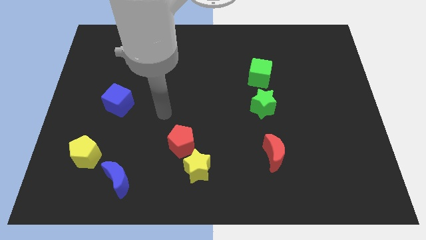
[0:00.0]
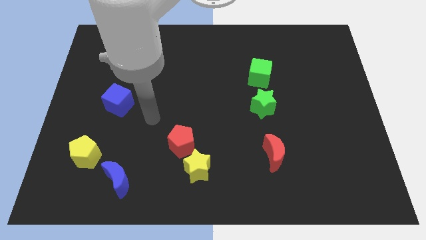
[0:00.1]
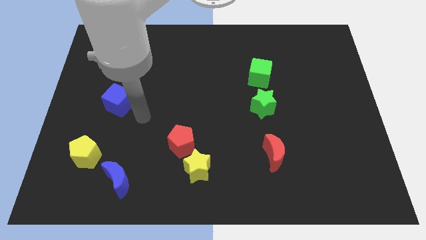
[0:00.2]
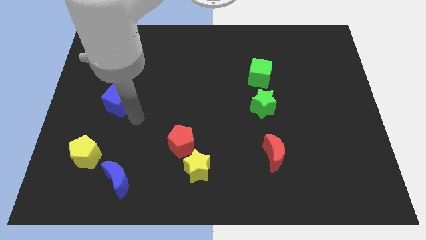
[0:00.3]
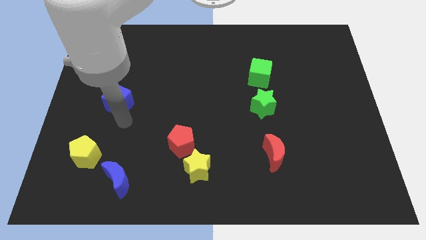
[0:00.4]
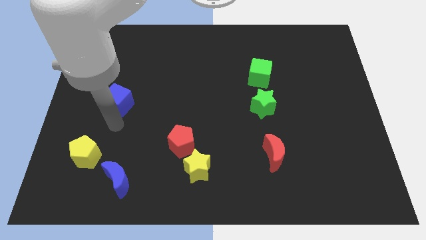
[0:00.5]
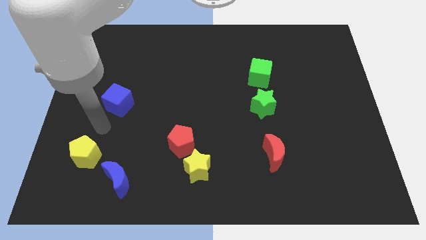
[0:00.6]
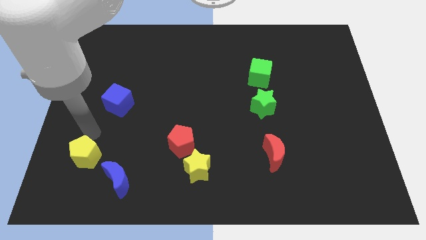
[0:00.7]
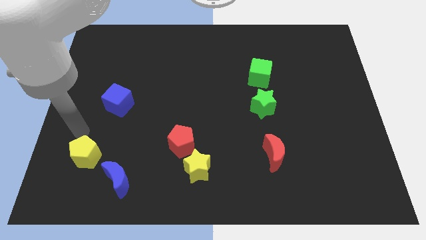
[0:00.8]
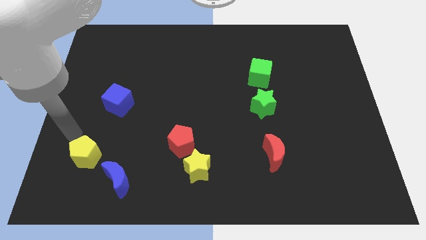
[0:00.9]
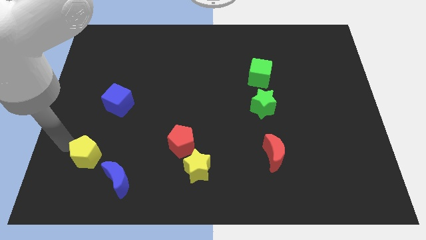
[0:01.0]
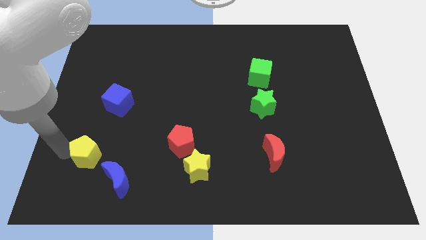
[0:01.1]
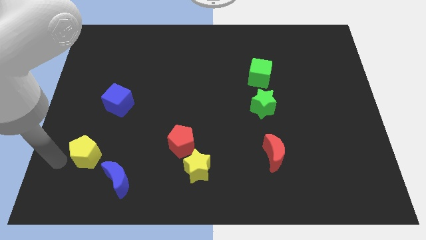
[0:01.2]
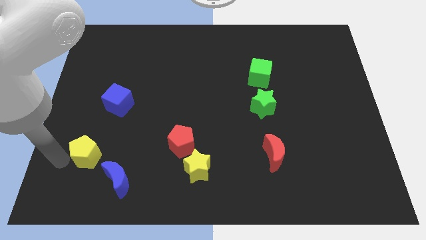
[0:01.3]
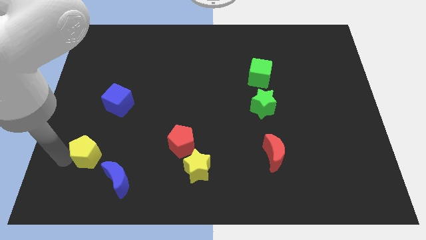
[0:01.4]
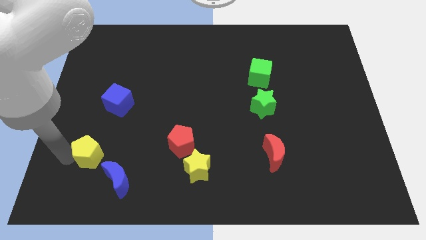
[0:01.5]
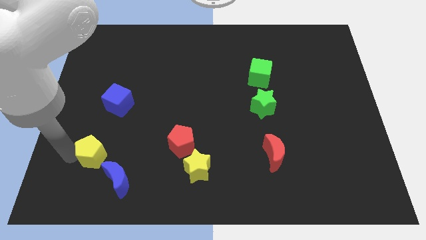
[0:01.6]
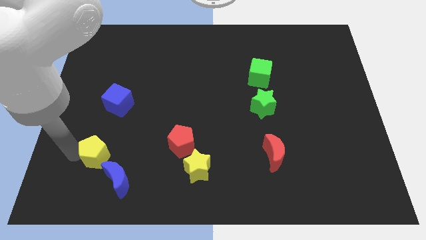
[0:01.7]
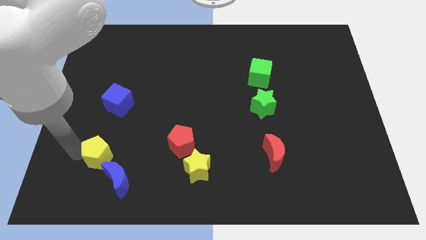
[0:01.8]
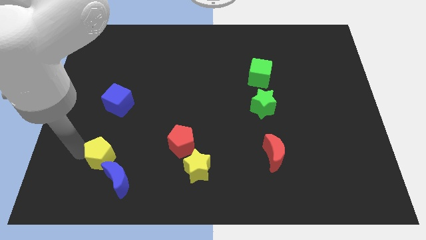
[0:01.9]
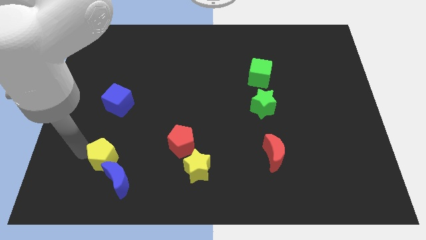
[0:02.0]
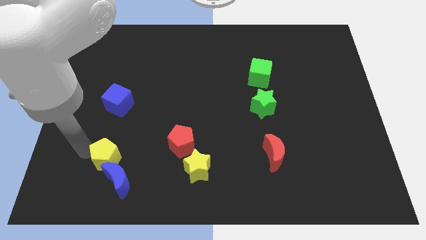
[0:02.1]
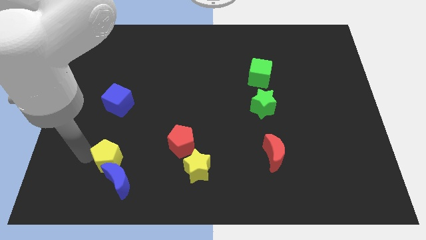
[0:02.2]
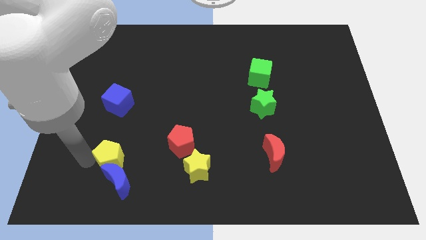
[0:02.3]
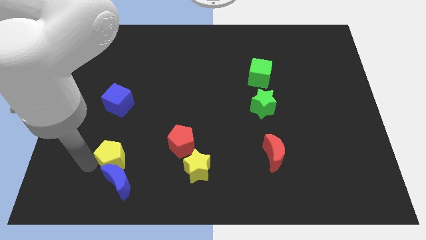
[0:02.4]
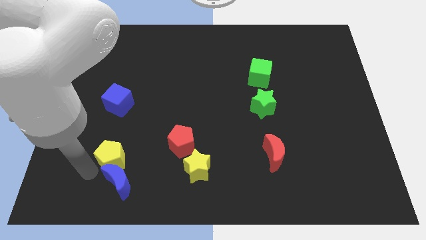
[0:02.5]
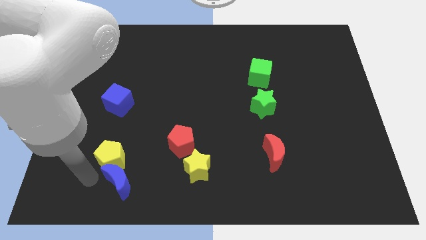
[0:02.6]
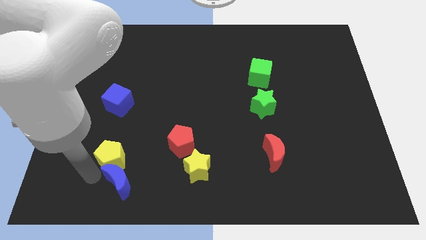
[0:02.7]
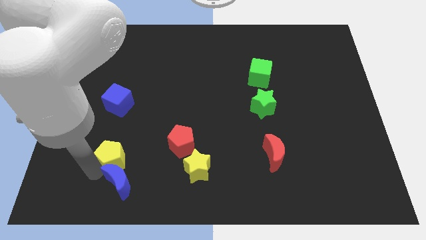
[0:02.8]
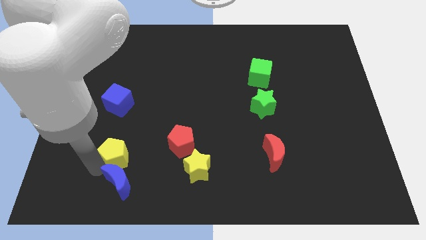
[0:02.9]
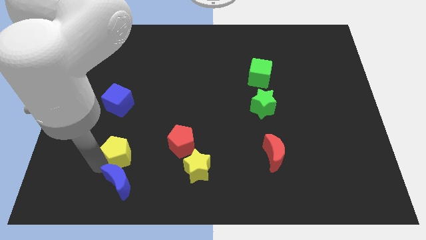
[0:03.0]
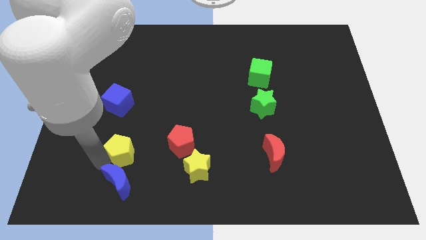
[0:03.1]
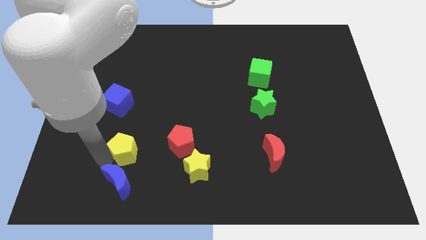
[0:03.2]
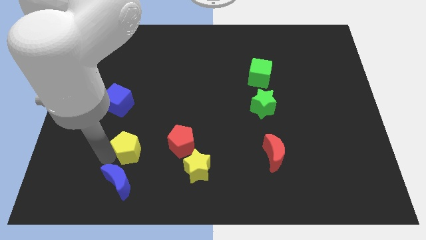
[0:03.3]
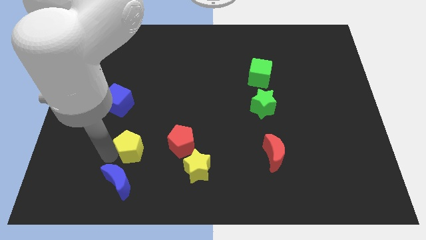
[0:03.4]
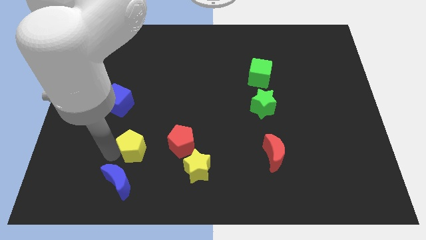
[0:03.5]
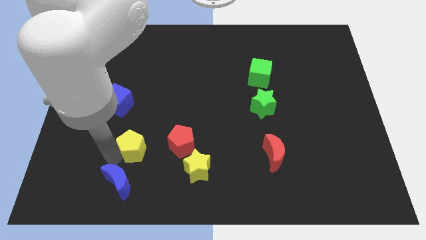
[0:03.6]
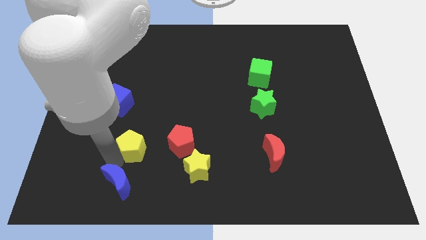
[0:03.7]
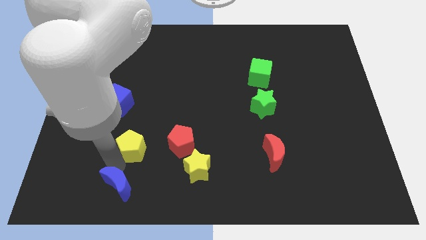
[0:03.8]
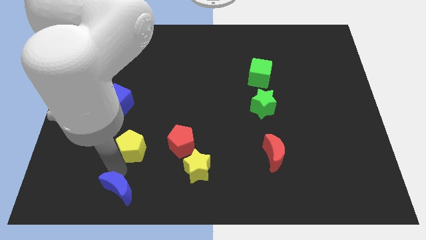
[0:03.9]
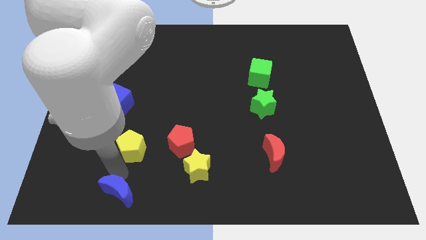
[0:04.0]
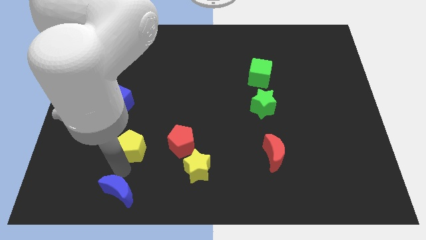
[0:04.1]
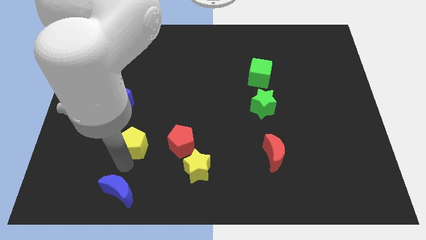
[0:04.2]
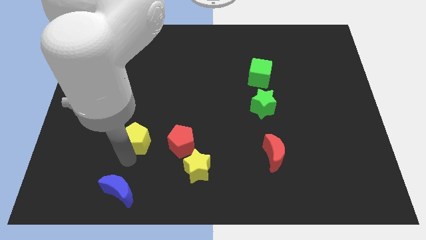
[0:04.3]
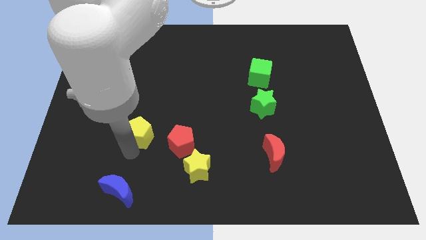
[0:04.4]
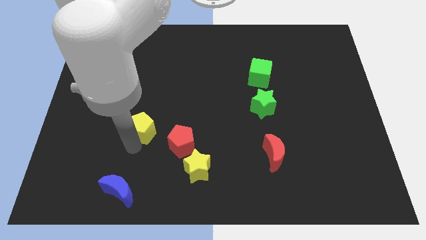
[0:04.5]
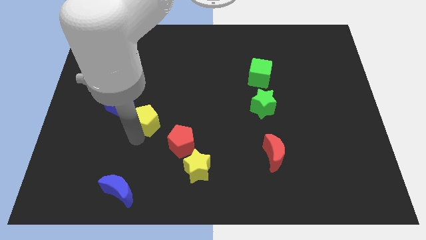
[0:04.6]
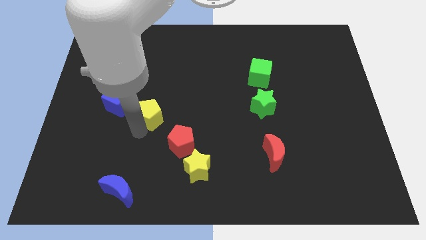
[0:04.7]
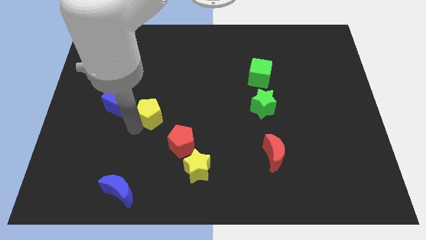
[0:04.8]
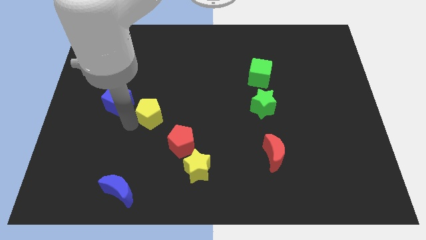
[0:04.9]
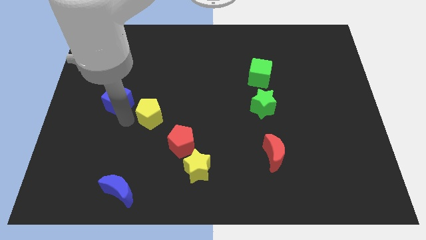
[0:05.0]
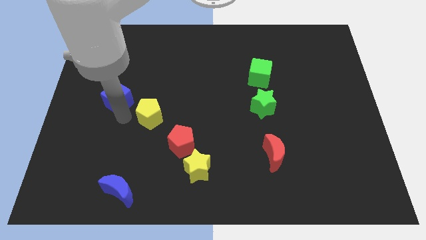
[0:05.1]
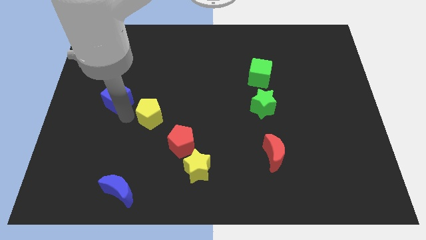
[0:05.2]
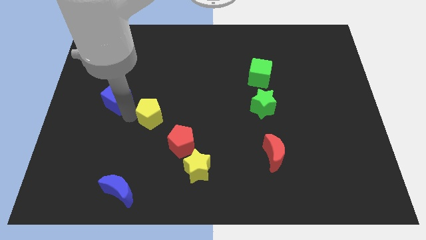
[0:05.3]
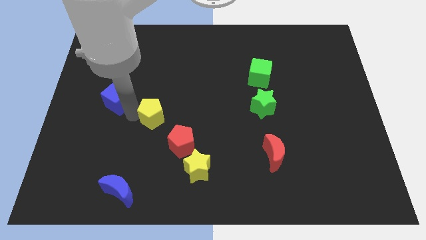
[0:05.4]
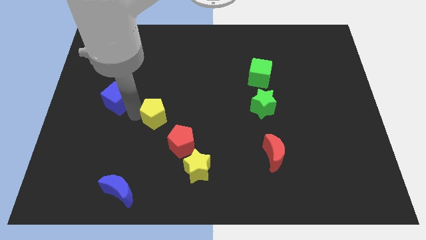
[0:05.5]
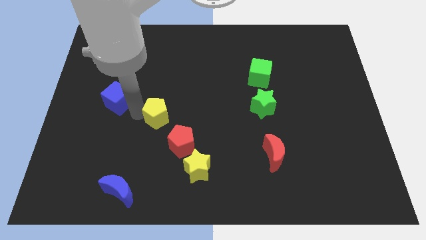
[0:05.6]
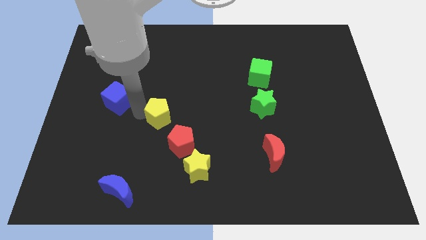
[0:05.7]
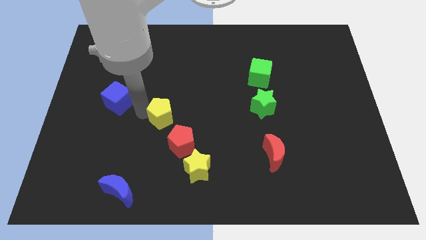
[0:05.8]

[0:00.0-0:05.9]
put the yellow pentagon to the center of the board
